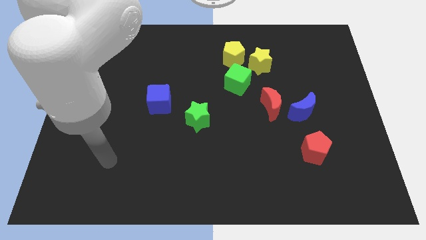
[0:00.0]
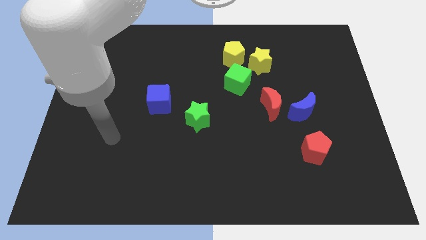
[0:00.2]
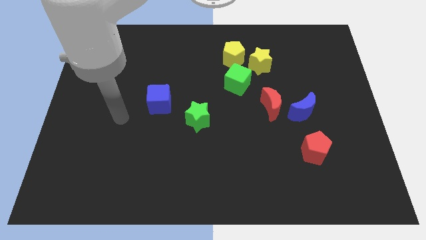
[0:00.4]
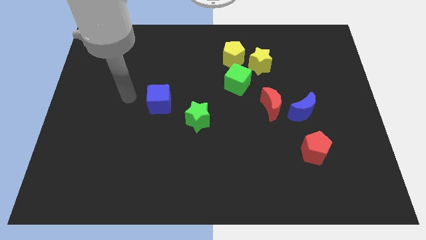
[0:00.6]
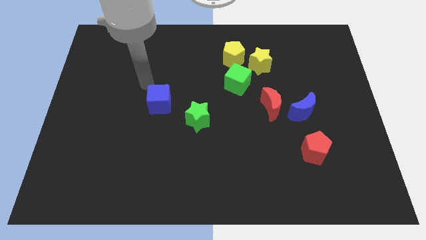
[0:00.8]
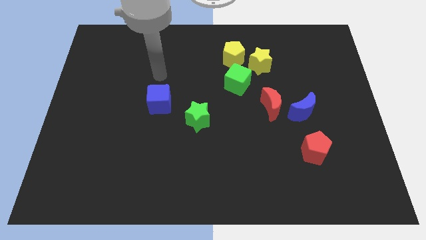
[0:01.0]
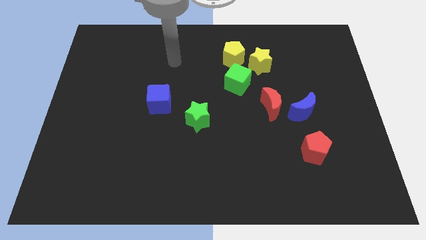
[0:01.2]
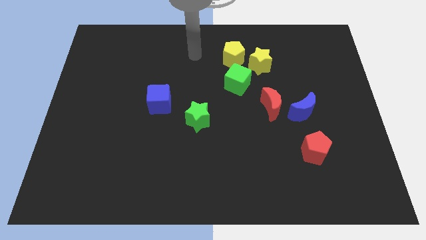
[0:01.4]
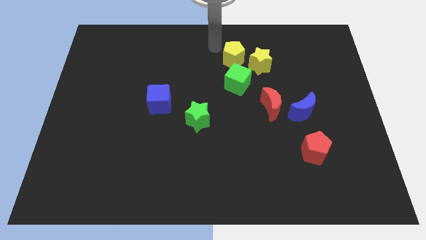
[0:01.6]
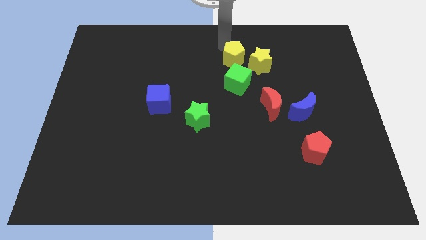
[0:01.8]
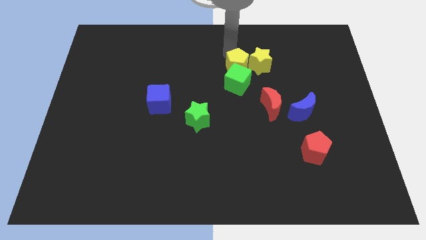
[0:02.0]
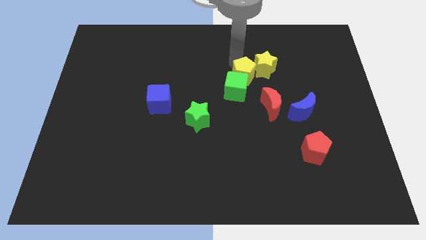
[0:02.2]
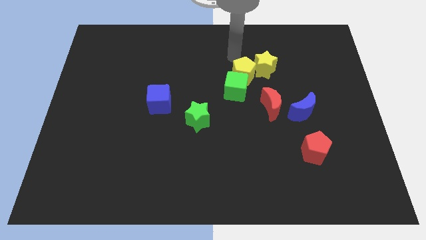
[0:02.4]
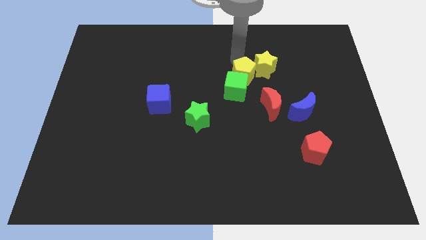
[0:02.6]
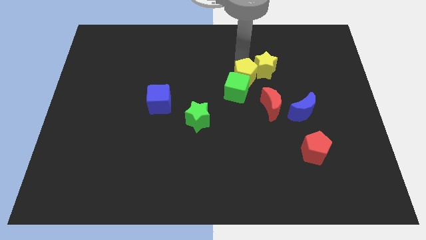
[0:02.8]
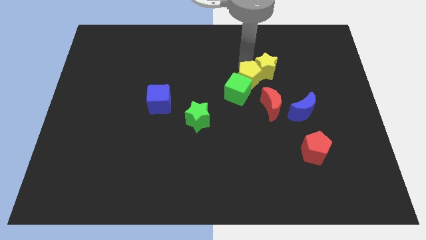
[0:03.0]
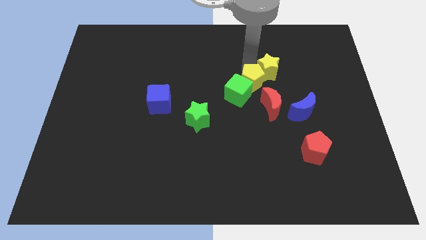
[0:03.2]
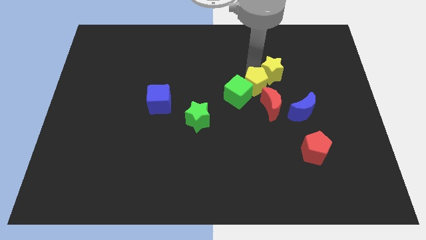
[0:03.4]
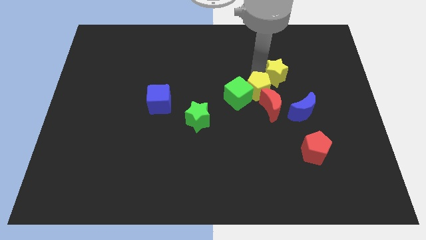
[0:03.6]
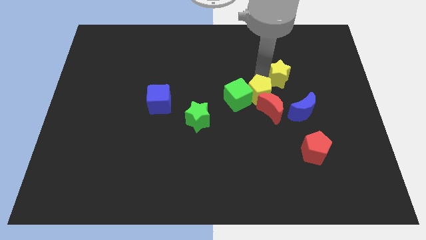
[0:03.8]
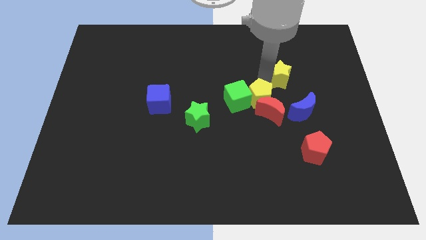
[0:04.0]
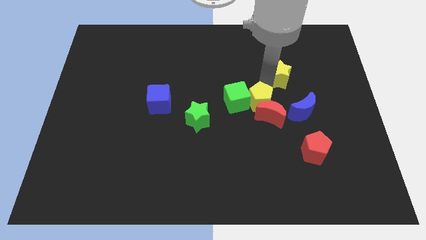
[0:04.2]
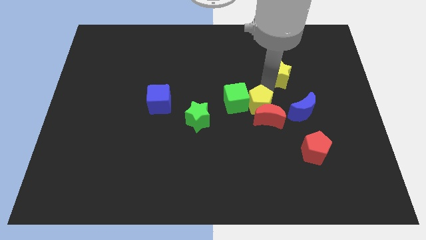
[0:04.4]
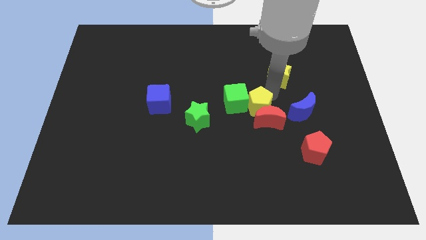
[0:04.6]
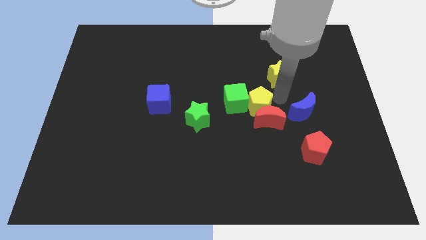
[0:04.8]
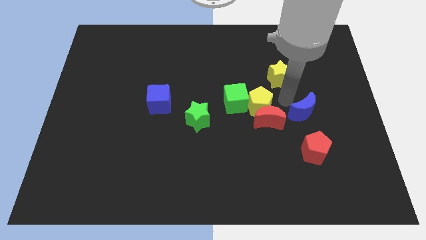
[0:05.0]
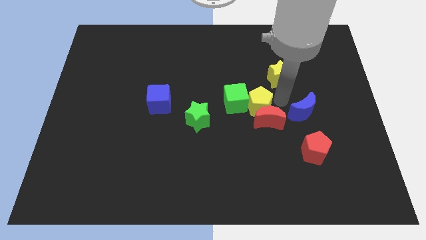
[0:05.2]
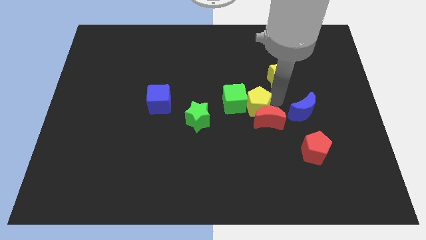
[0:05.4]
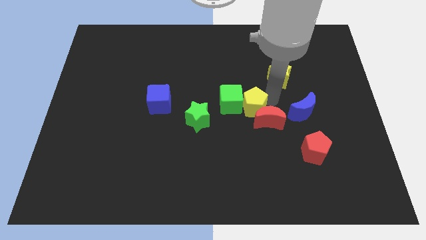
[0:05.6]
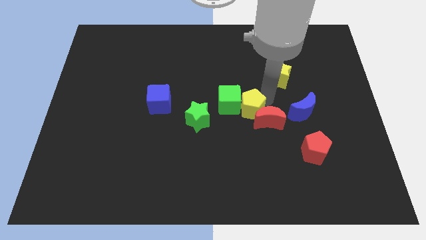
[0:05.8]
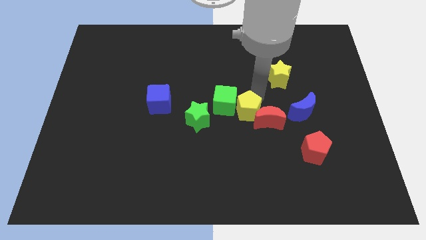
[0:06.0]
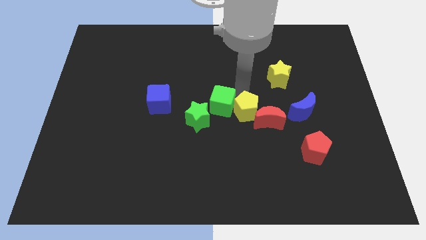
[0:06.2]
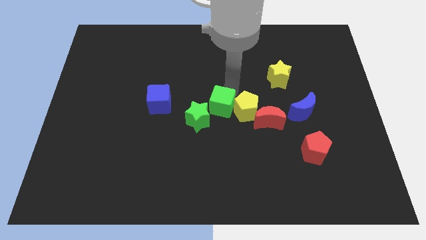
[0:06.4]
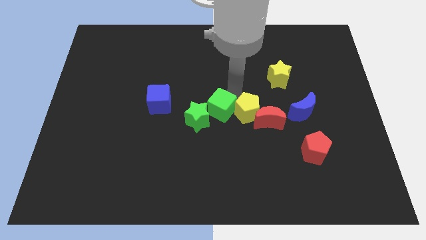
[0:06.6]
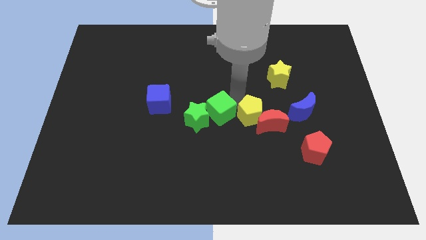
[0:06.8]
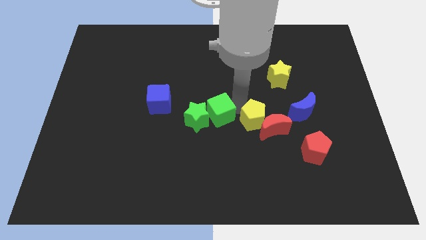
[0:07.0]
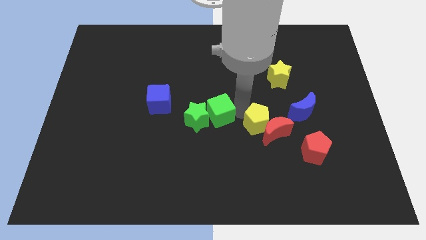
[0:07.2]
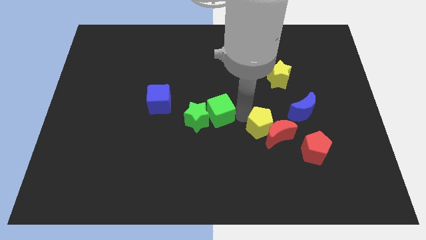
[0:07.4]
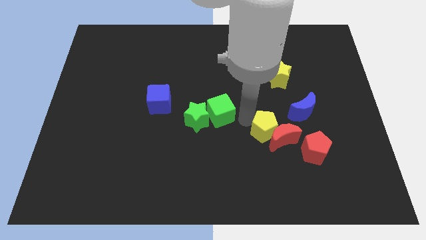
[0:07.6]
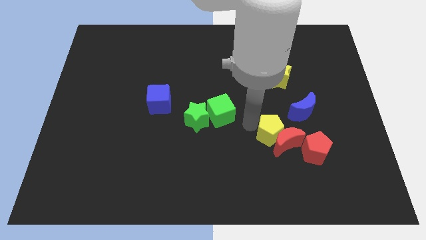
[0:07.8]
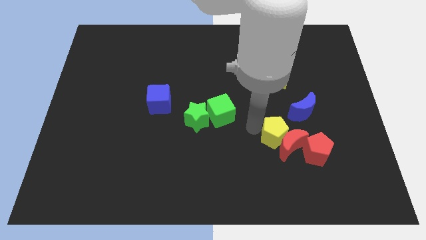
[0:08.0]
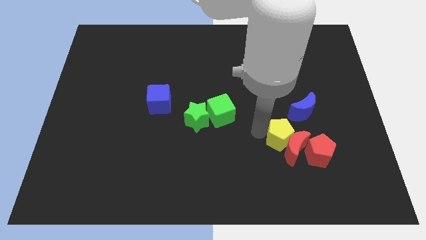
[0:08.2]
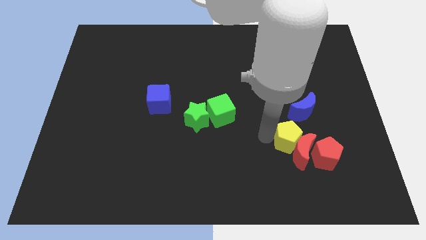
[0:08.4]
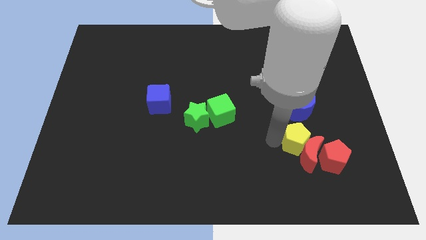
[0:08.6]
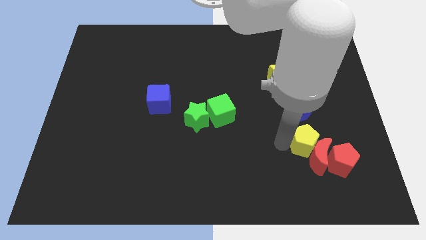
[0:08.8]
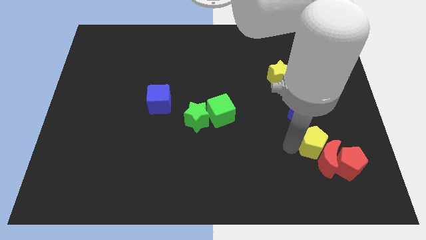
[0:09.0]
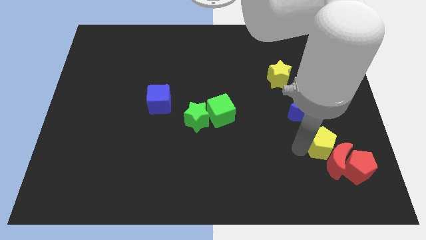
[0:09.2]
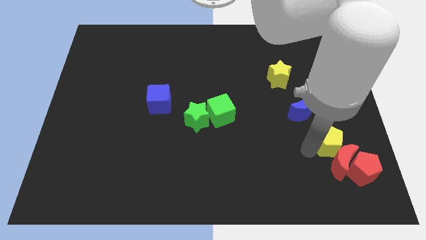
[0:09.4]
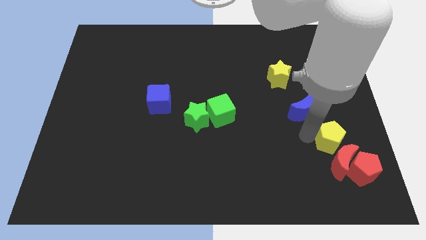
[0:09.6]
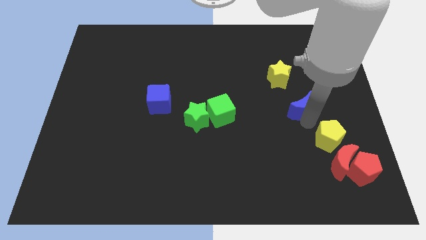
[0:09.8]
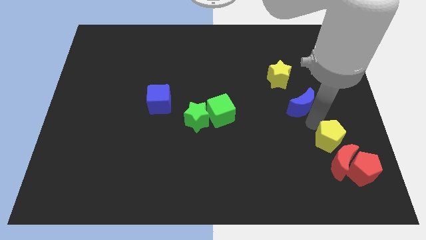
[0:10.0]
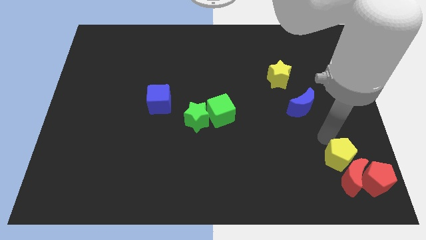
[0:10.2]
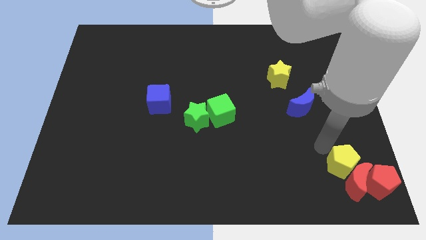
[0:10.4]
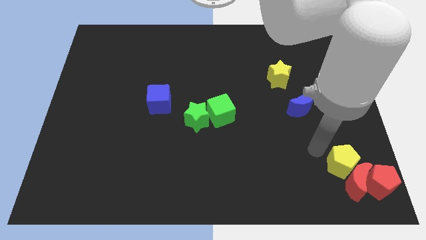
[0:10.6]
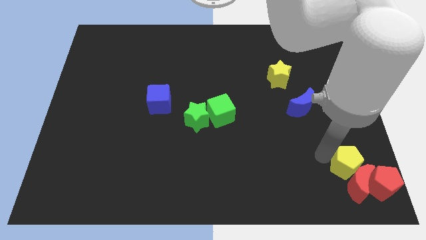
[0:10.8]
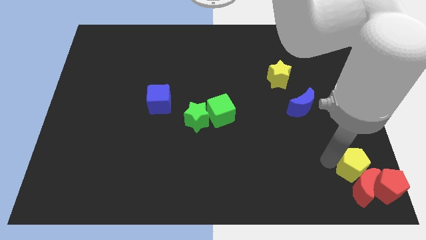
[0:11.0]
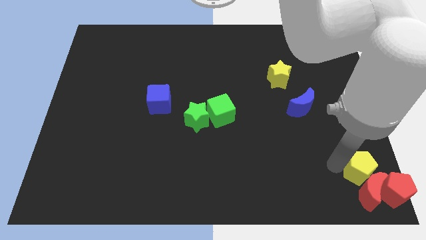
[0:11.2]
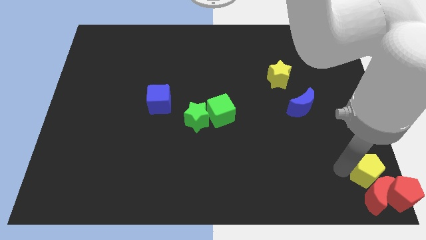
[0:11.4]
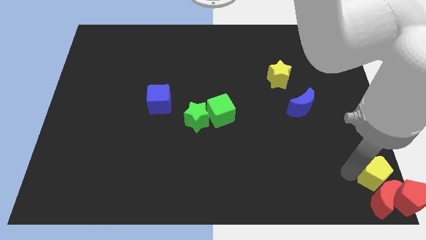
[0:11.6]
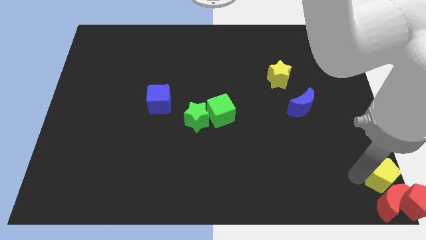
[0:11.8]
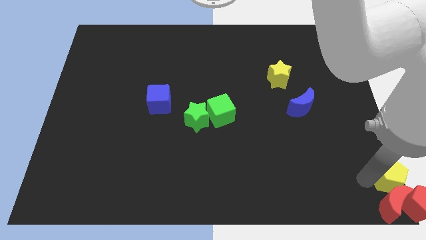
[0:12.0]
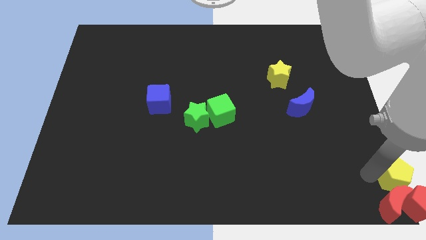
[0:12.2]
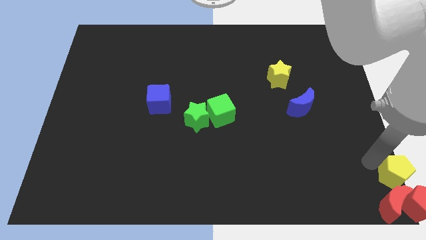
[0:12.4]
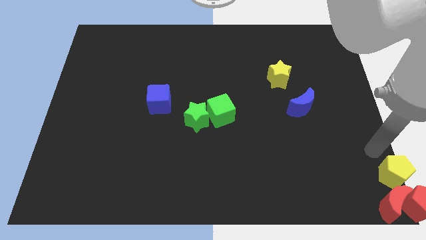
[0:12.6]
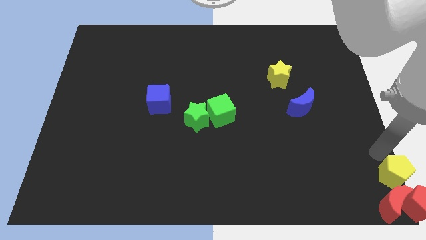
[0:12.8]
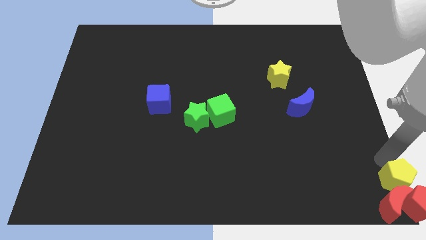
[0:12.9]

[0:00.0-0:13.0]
move the yellow pentagon close to the red pentagon

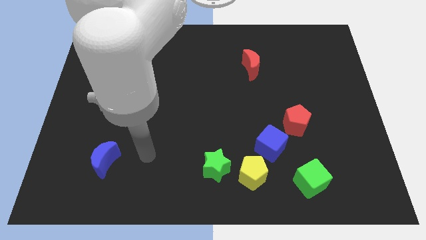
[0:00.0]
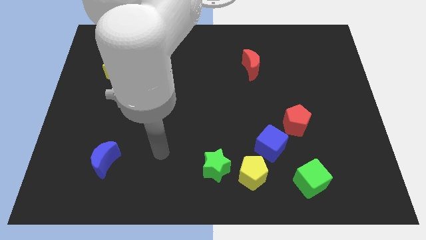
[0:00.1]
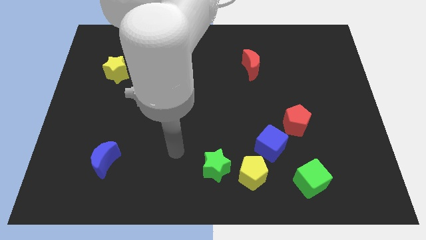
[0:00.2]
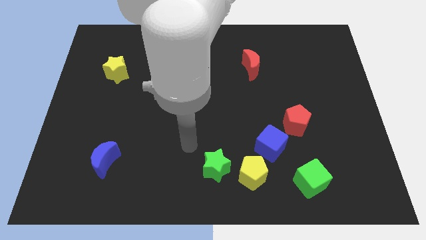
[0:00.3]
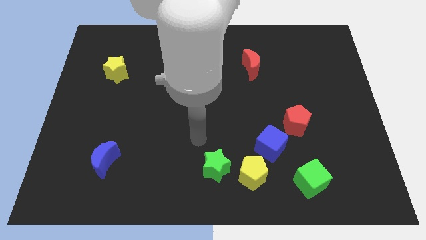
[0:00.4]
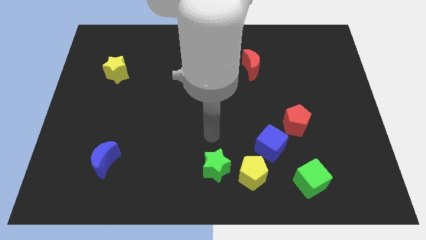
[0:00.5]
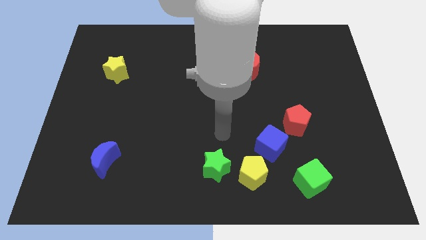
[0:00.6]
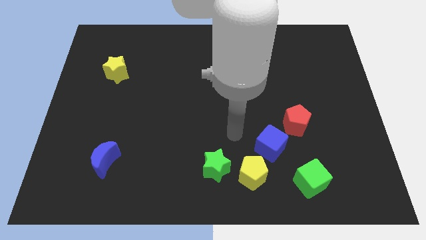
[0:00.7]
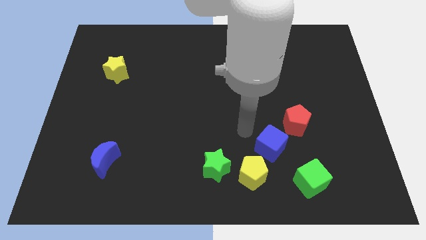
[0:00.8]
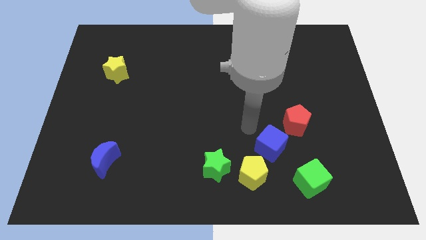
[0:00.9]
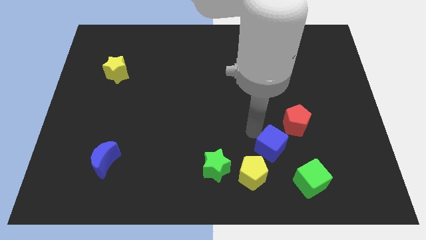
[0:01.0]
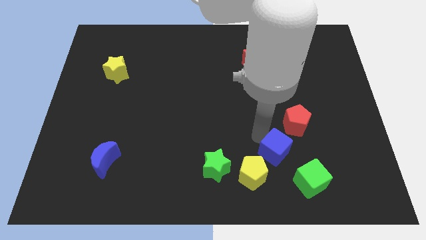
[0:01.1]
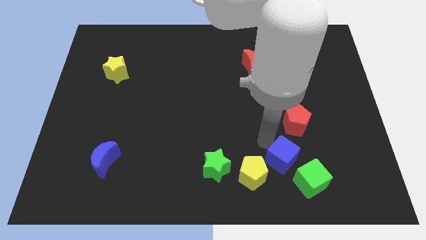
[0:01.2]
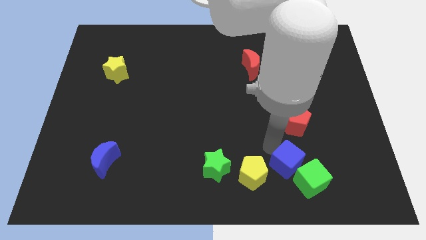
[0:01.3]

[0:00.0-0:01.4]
slide the blue cube next to the green cube

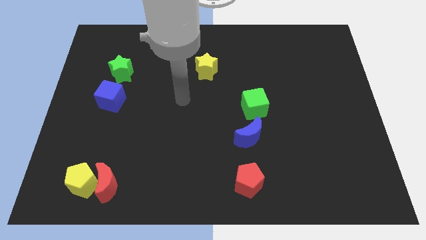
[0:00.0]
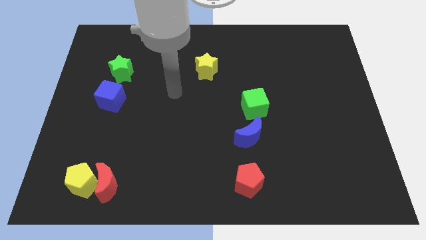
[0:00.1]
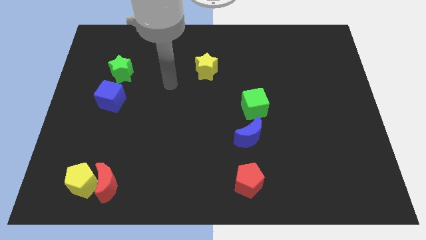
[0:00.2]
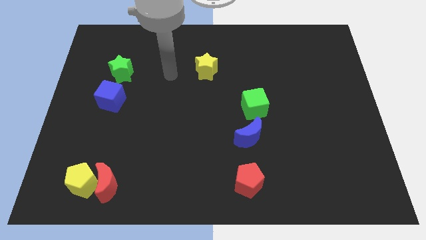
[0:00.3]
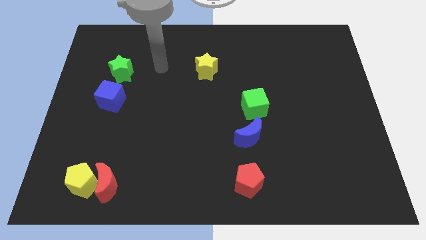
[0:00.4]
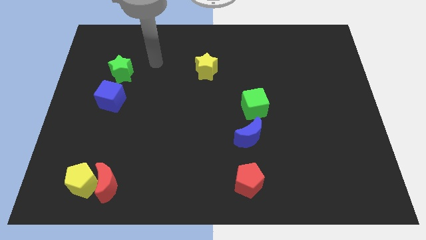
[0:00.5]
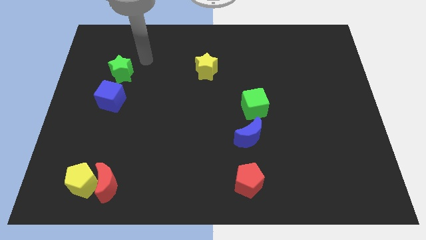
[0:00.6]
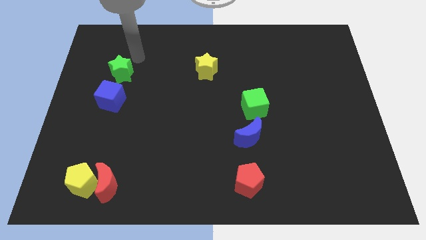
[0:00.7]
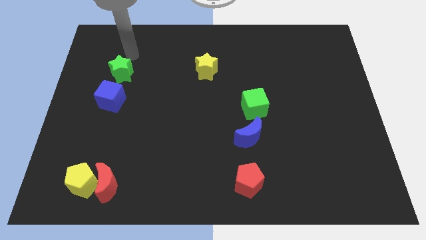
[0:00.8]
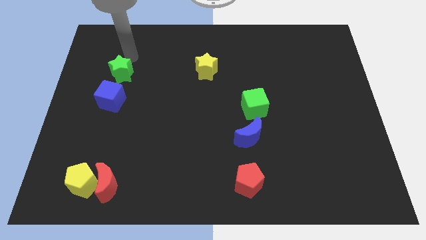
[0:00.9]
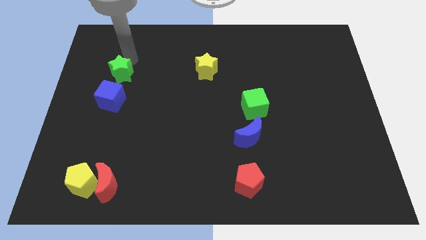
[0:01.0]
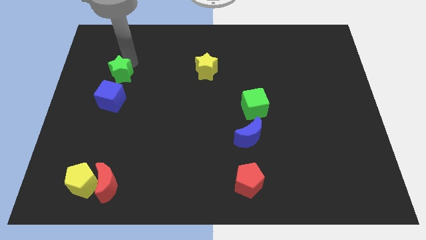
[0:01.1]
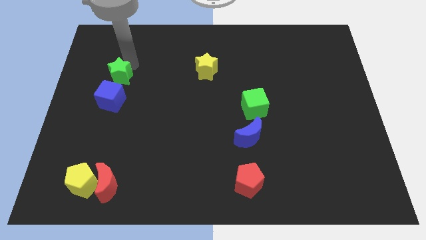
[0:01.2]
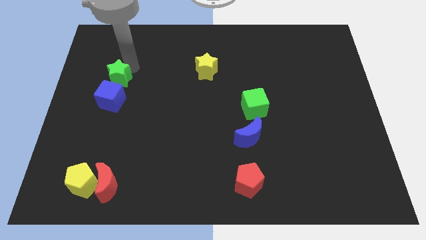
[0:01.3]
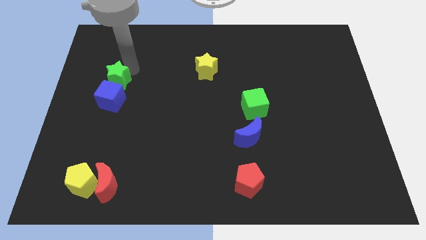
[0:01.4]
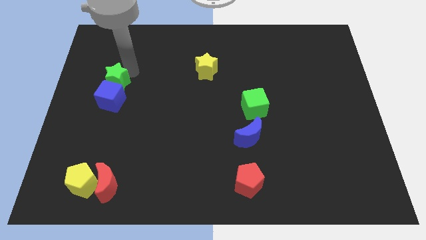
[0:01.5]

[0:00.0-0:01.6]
put the green star to the blue cube
